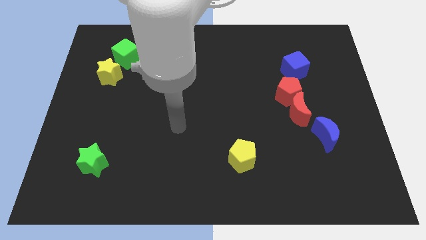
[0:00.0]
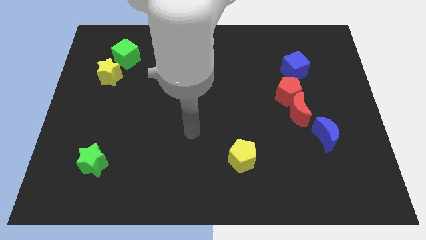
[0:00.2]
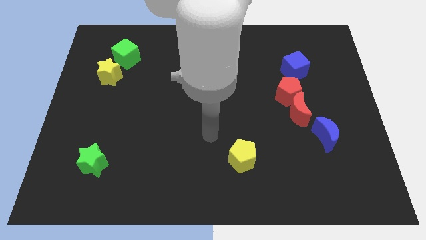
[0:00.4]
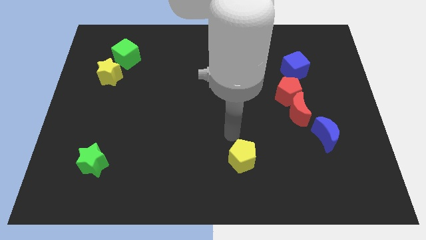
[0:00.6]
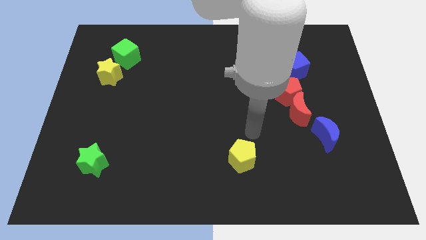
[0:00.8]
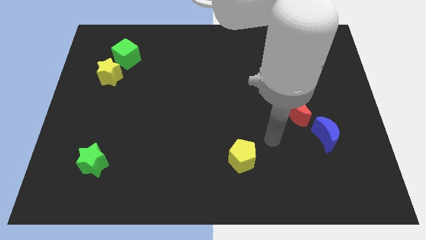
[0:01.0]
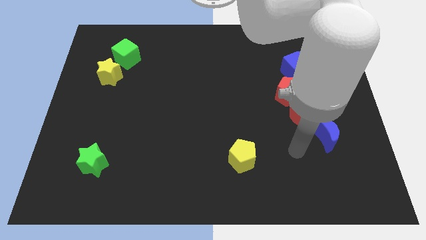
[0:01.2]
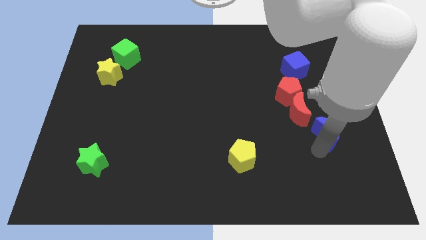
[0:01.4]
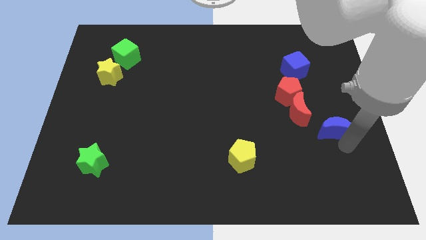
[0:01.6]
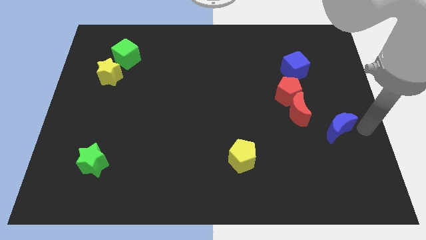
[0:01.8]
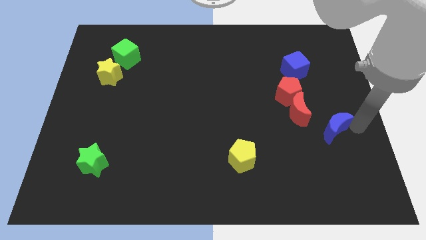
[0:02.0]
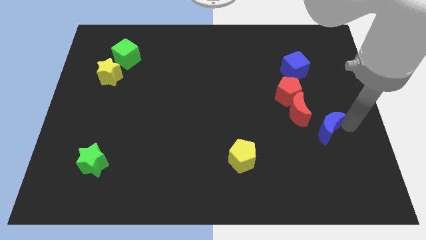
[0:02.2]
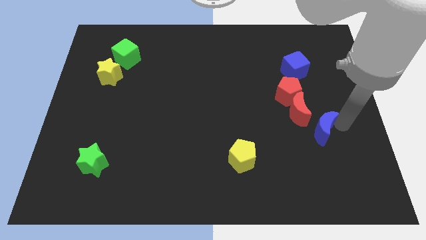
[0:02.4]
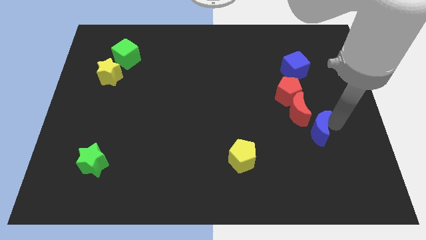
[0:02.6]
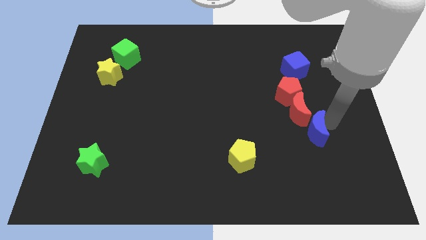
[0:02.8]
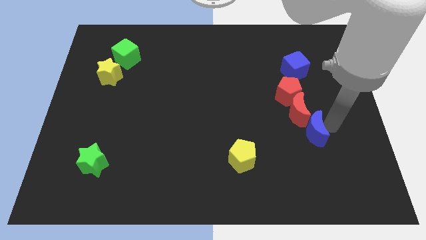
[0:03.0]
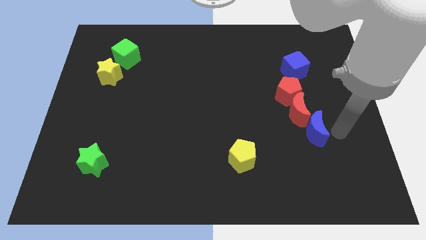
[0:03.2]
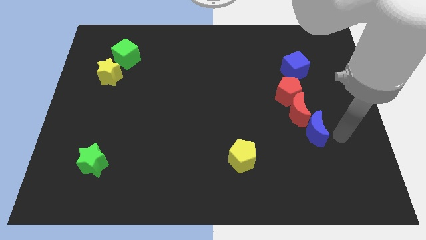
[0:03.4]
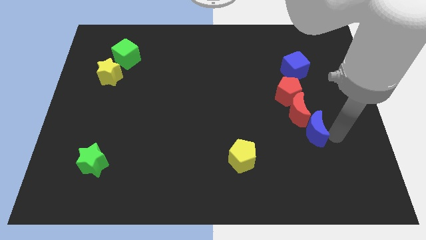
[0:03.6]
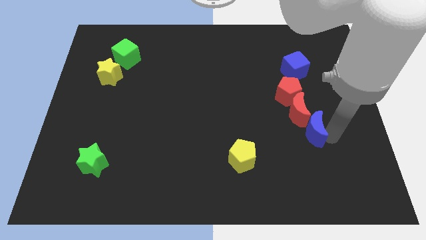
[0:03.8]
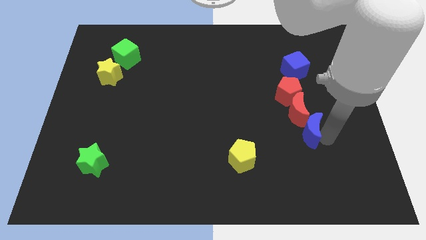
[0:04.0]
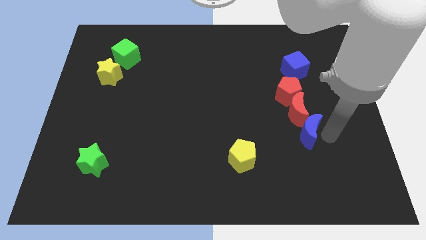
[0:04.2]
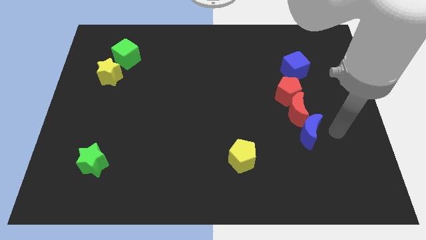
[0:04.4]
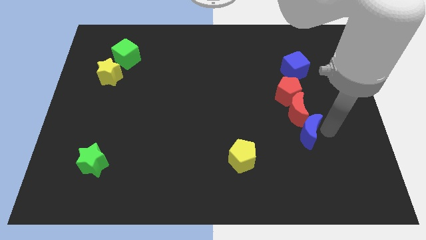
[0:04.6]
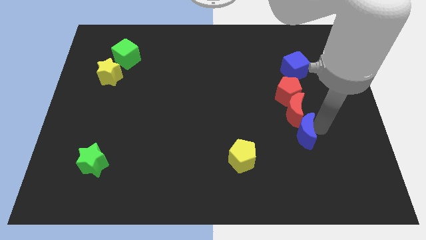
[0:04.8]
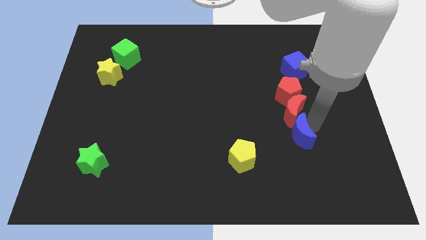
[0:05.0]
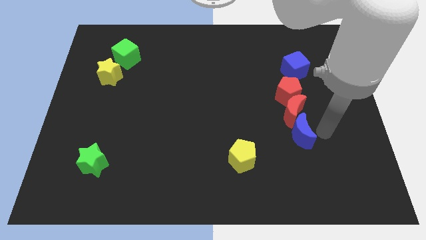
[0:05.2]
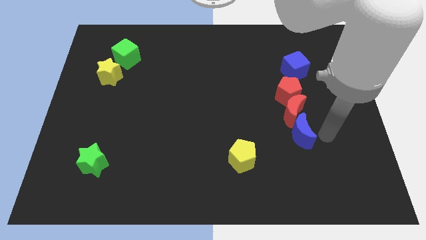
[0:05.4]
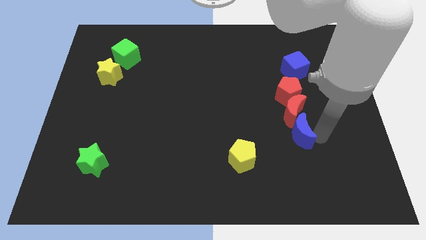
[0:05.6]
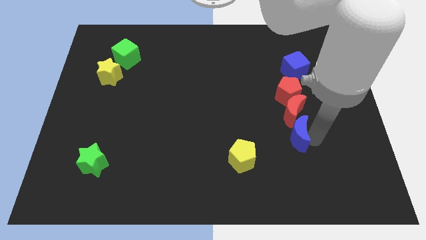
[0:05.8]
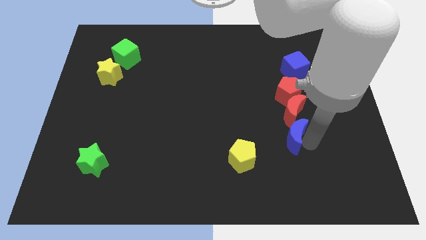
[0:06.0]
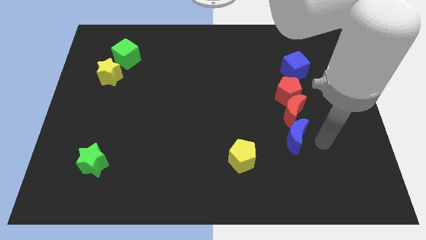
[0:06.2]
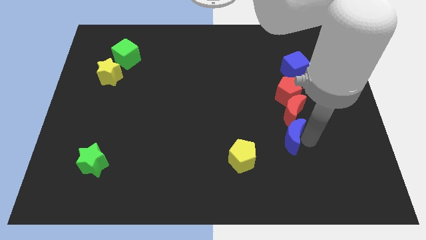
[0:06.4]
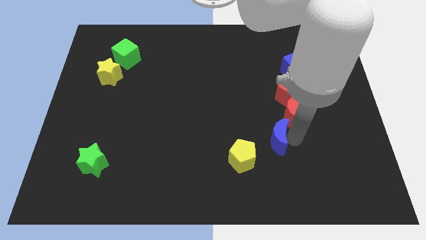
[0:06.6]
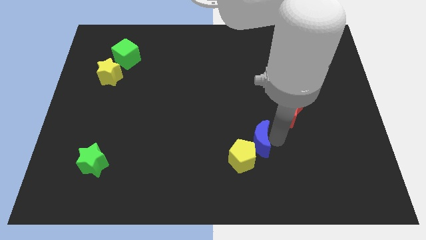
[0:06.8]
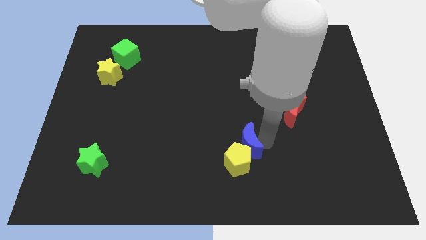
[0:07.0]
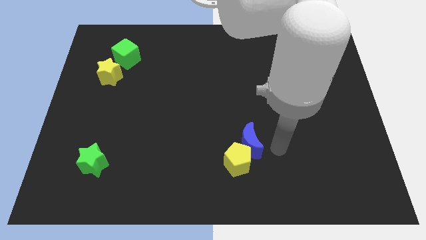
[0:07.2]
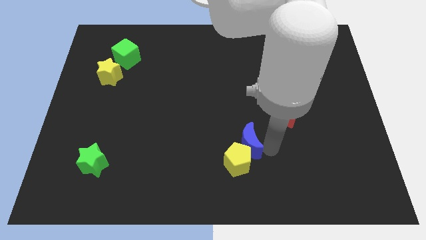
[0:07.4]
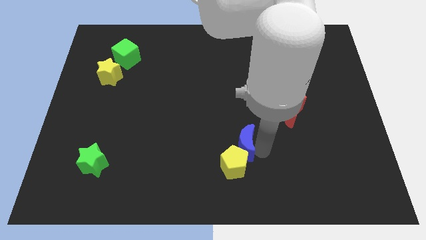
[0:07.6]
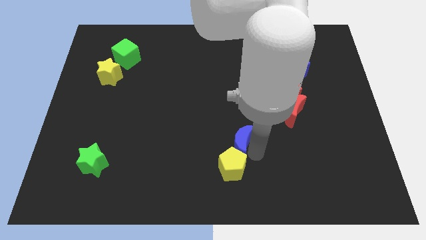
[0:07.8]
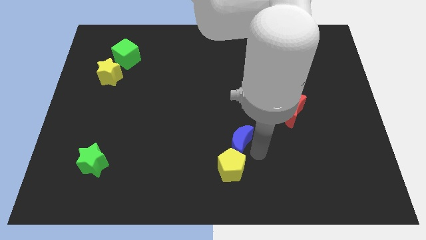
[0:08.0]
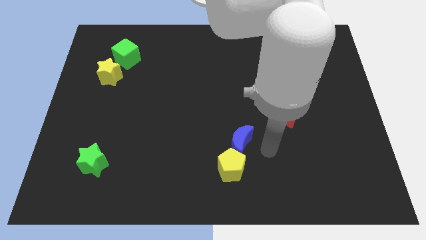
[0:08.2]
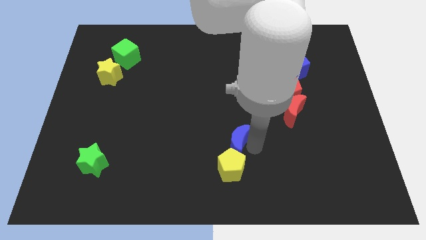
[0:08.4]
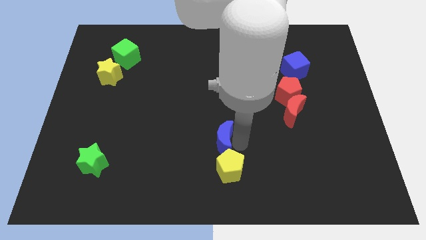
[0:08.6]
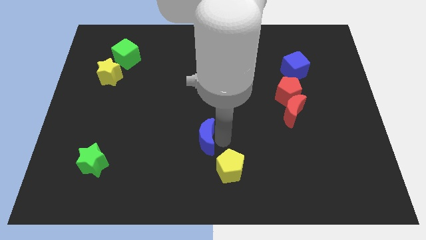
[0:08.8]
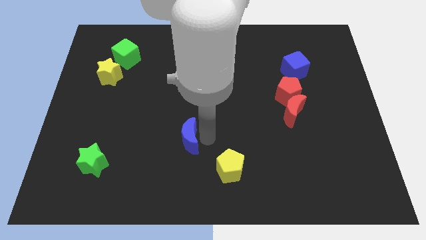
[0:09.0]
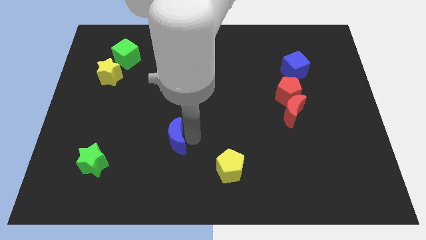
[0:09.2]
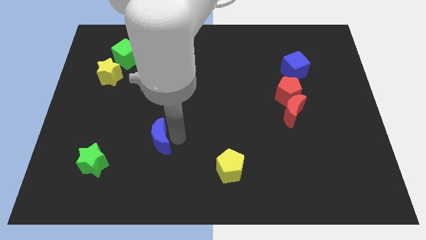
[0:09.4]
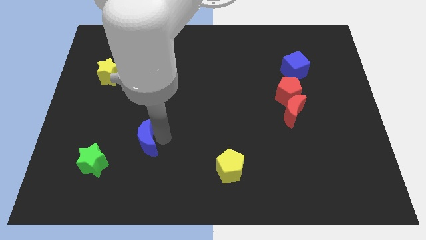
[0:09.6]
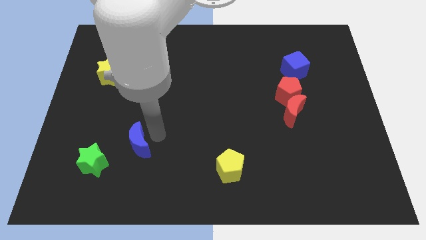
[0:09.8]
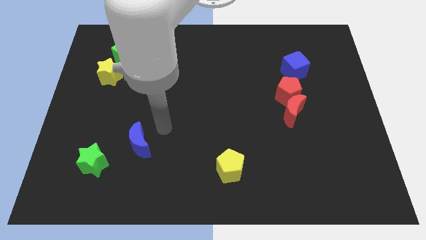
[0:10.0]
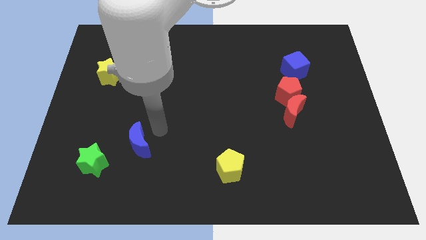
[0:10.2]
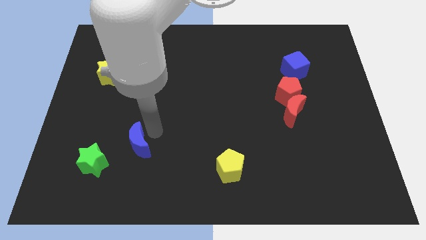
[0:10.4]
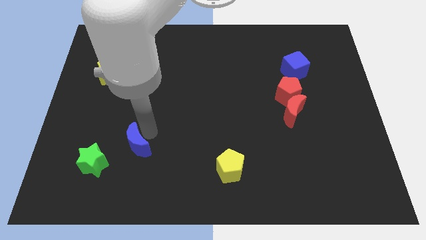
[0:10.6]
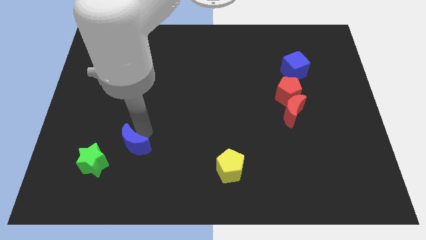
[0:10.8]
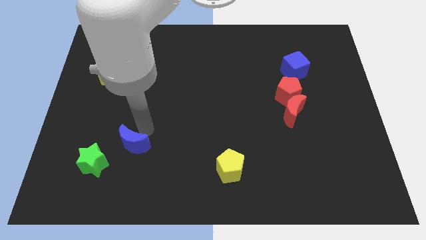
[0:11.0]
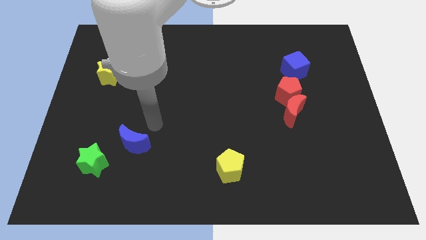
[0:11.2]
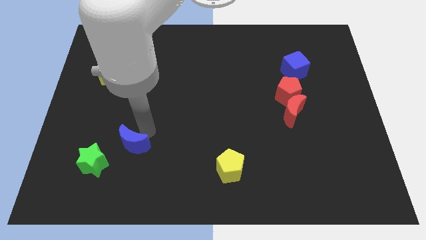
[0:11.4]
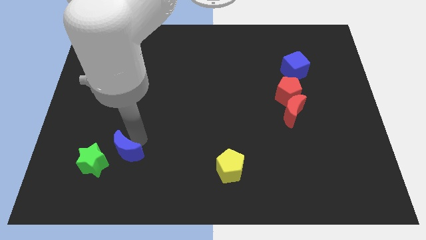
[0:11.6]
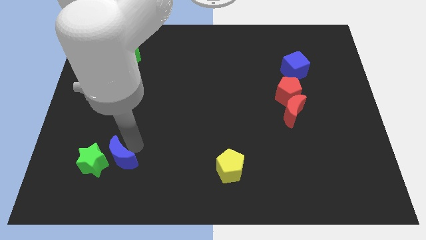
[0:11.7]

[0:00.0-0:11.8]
push the blue moon to the green star
